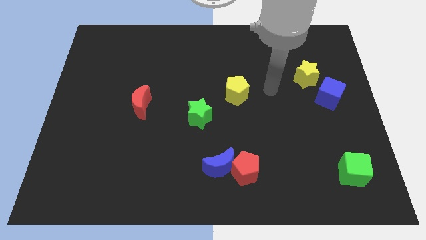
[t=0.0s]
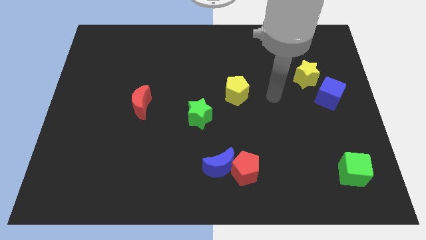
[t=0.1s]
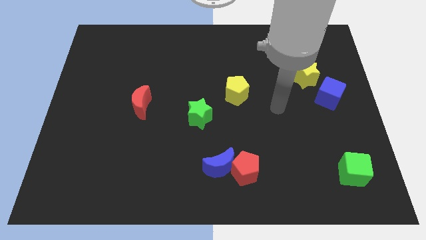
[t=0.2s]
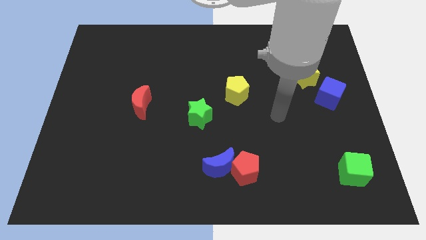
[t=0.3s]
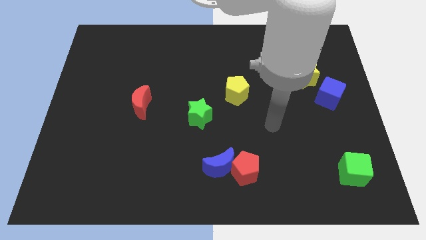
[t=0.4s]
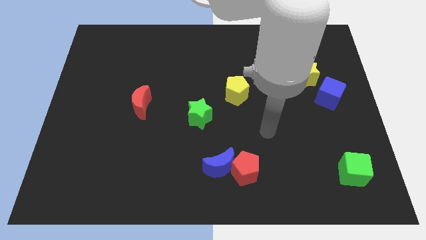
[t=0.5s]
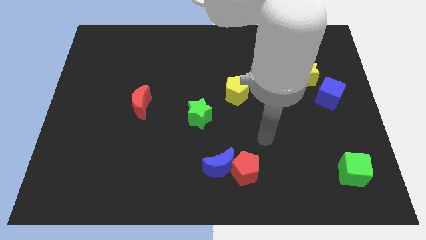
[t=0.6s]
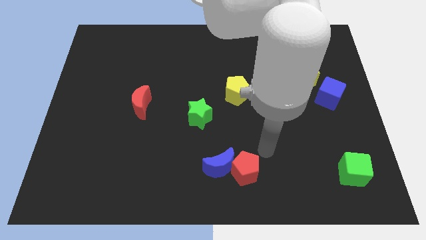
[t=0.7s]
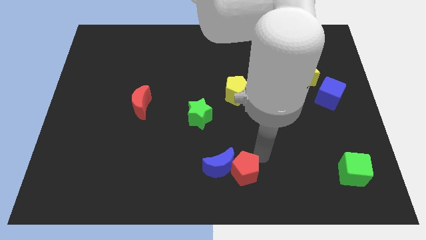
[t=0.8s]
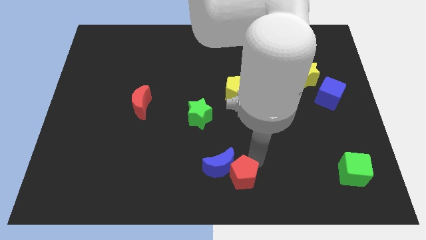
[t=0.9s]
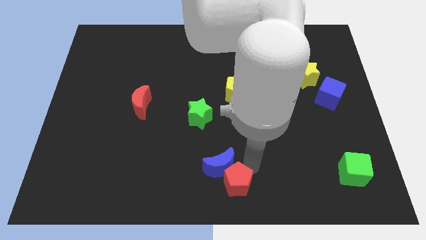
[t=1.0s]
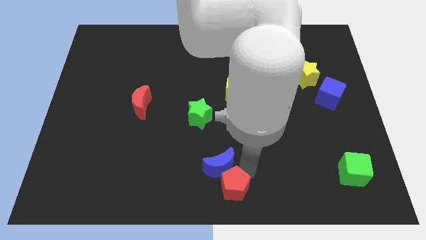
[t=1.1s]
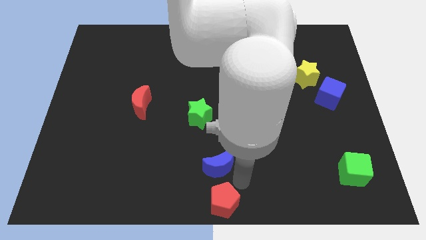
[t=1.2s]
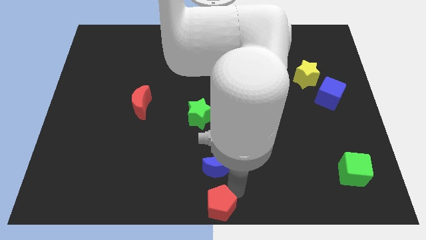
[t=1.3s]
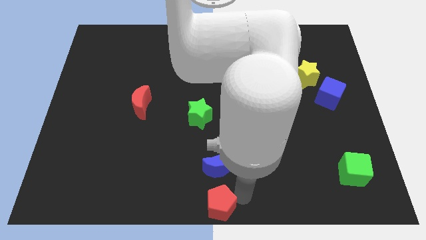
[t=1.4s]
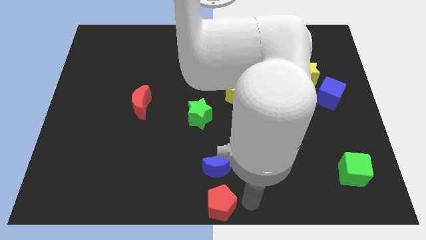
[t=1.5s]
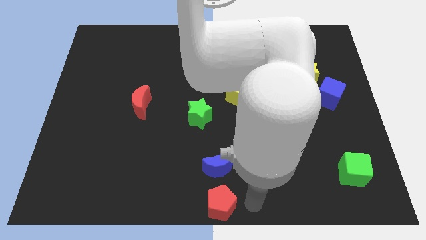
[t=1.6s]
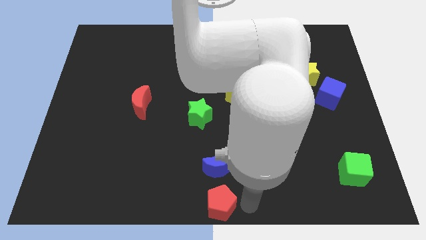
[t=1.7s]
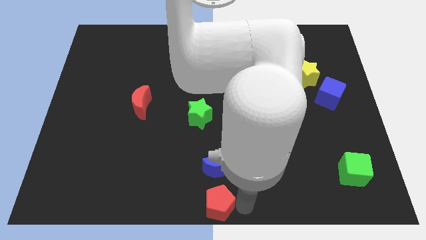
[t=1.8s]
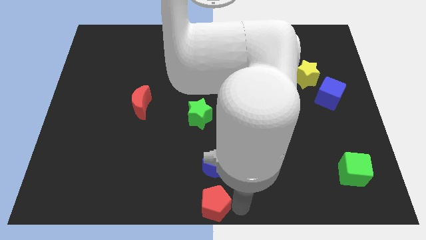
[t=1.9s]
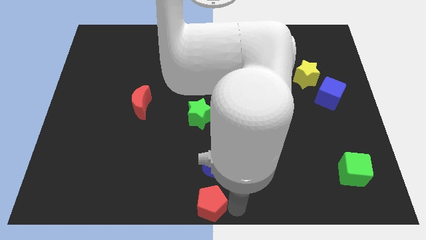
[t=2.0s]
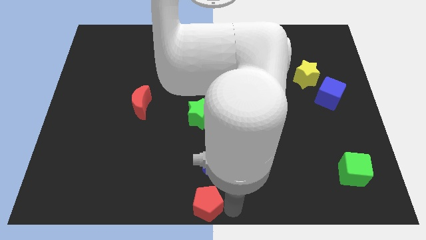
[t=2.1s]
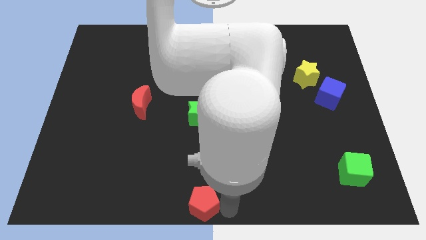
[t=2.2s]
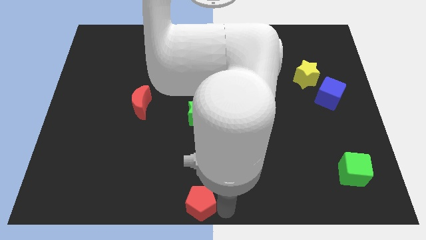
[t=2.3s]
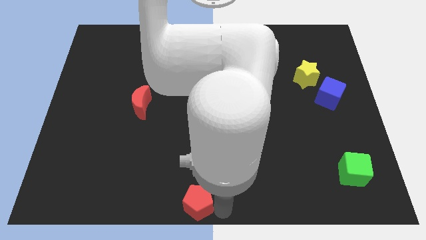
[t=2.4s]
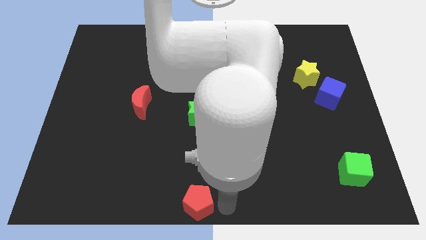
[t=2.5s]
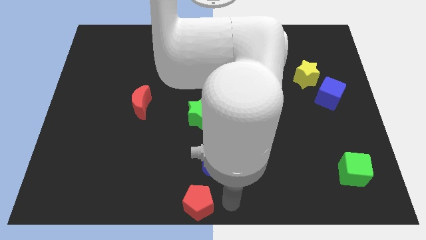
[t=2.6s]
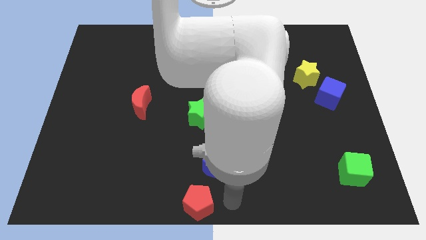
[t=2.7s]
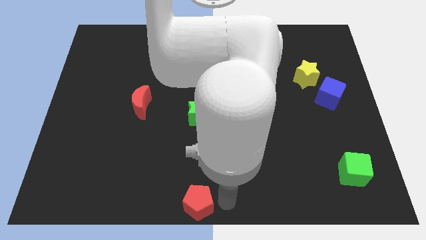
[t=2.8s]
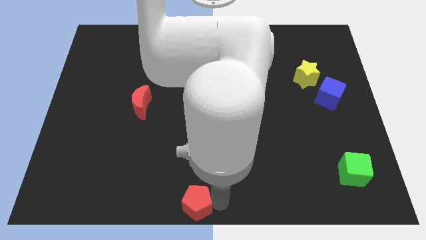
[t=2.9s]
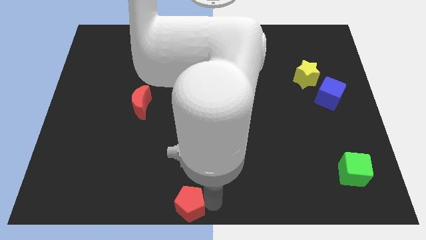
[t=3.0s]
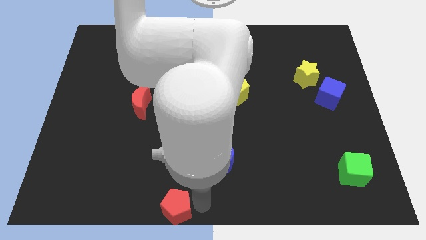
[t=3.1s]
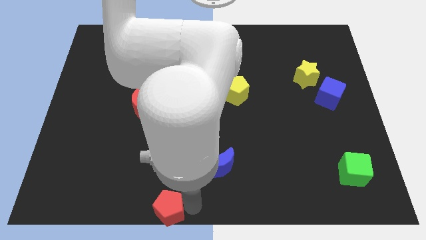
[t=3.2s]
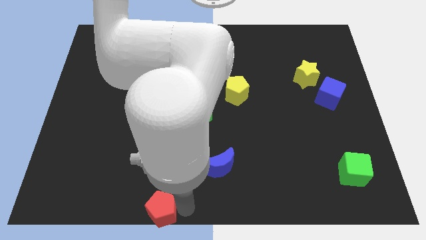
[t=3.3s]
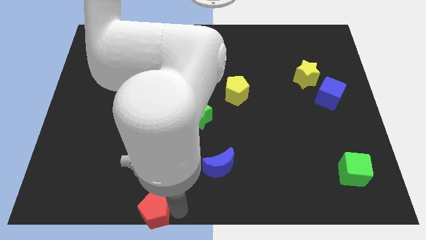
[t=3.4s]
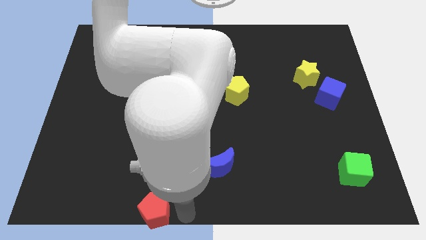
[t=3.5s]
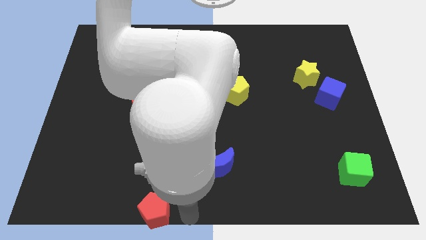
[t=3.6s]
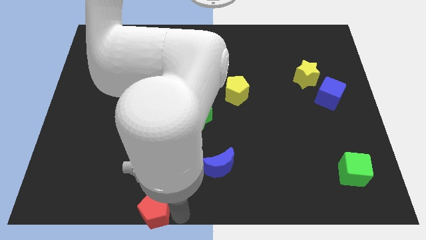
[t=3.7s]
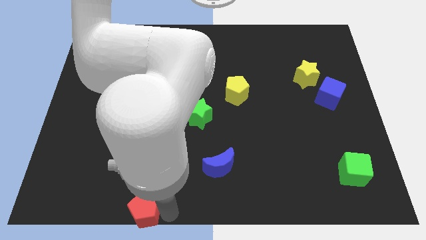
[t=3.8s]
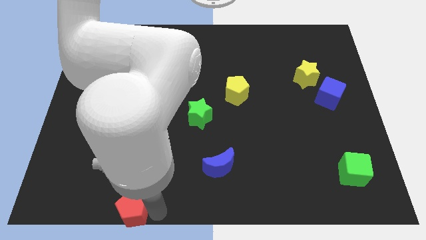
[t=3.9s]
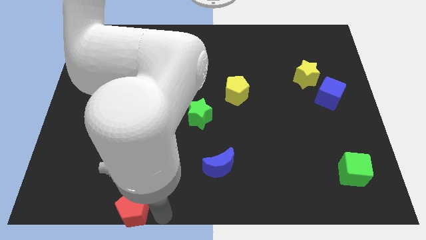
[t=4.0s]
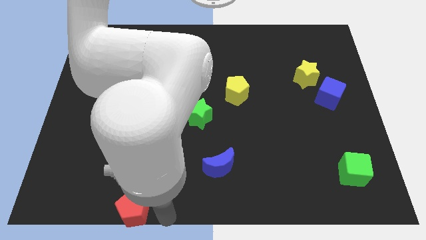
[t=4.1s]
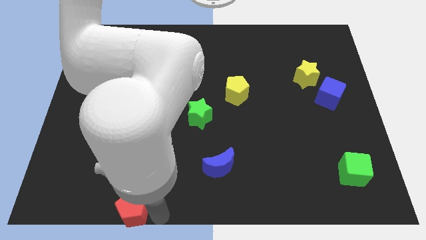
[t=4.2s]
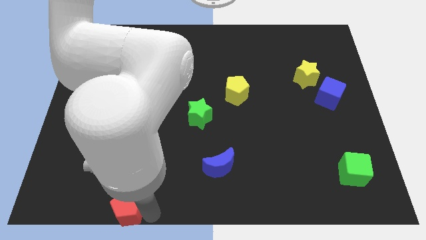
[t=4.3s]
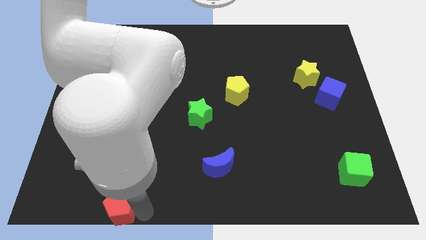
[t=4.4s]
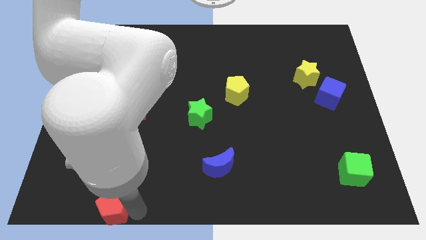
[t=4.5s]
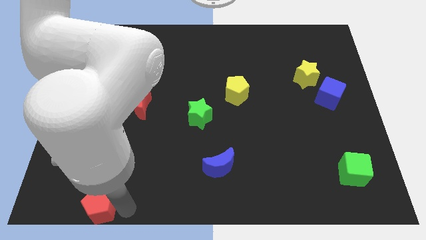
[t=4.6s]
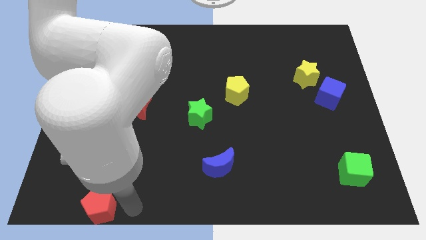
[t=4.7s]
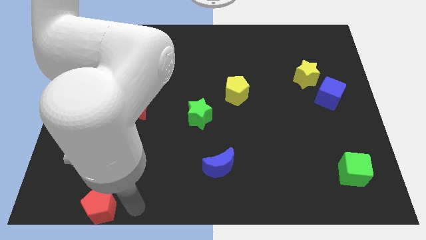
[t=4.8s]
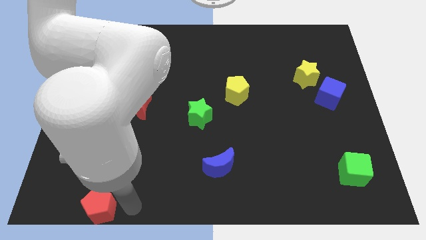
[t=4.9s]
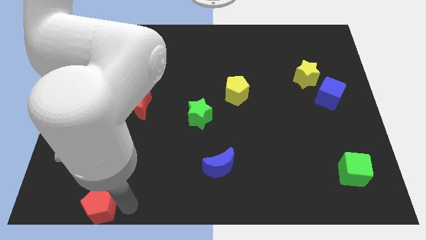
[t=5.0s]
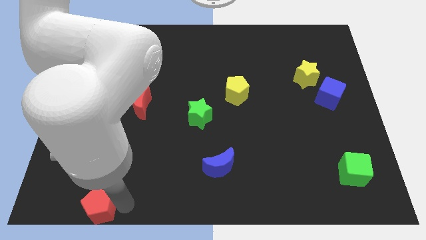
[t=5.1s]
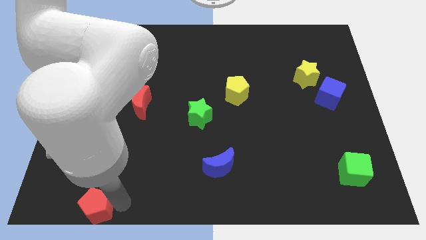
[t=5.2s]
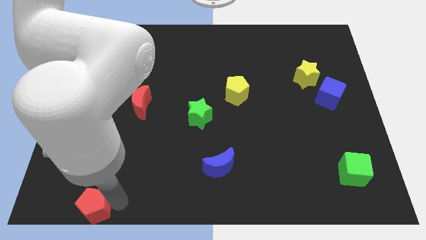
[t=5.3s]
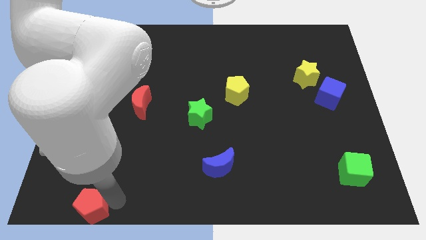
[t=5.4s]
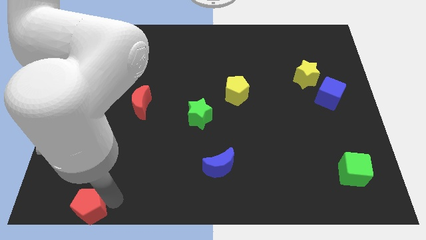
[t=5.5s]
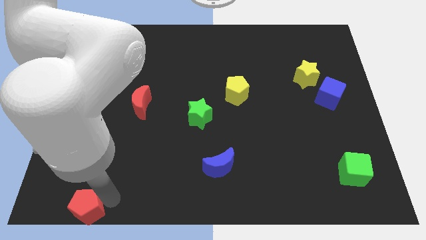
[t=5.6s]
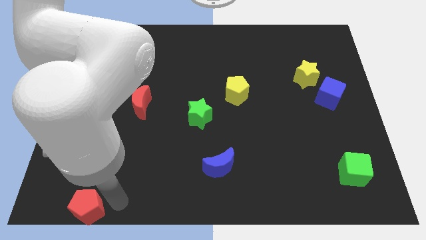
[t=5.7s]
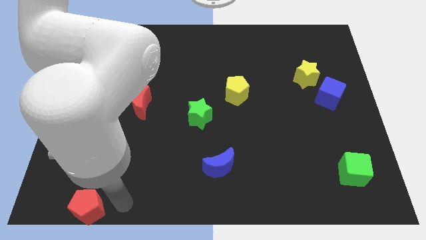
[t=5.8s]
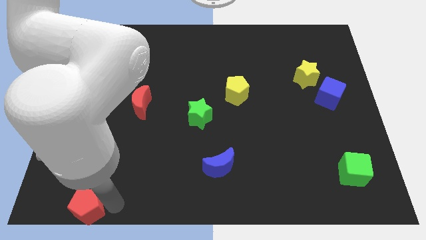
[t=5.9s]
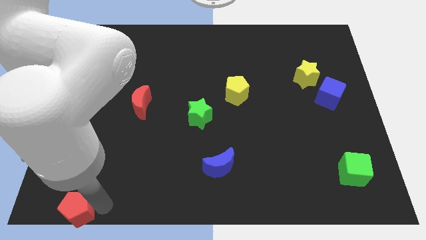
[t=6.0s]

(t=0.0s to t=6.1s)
slide the red pentagon to the lower left corner
